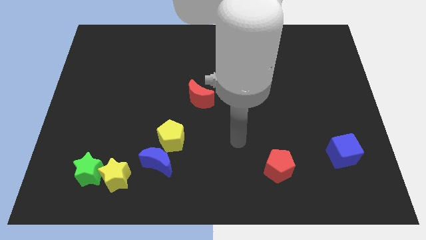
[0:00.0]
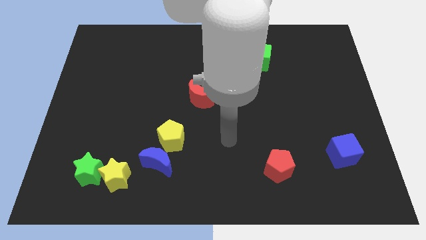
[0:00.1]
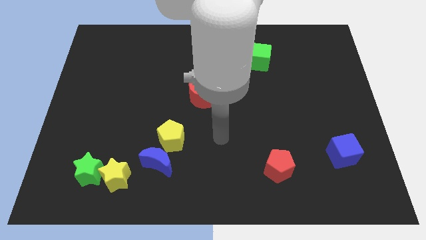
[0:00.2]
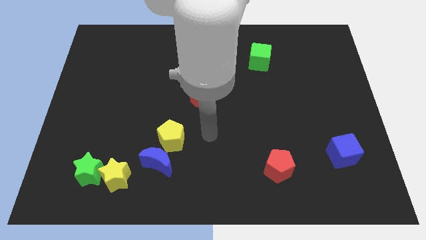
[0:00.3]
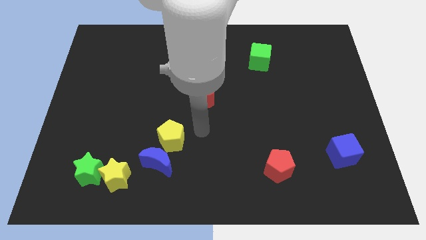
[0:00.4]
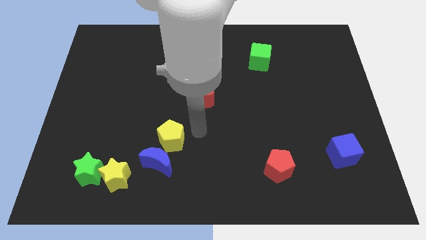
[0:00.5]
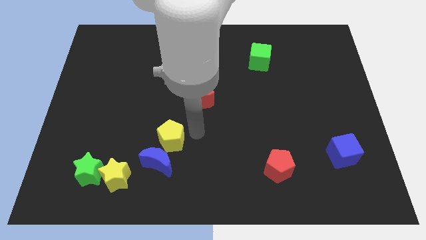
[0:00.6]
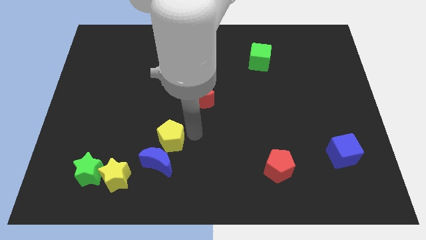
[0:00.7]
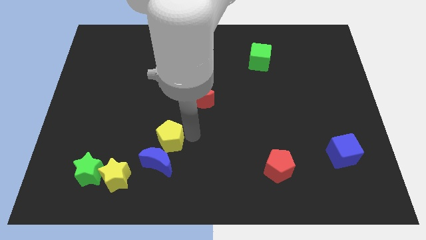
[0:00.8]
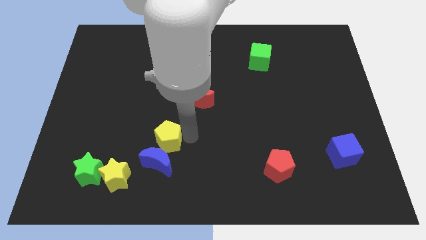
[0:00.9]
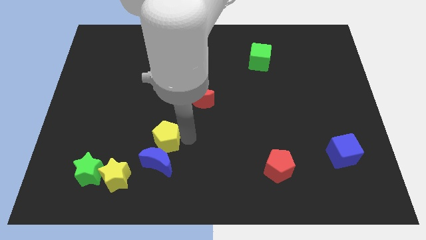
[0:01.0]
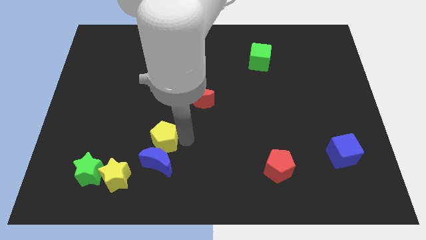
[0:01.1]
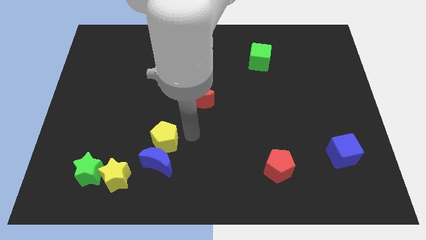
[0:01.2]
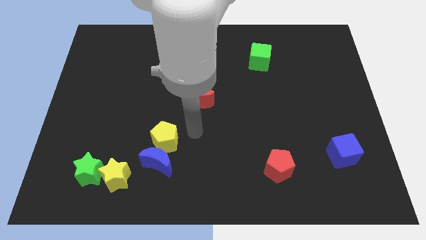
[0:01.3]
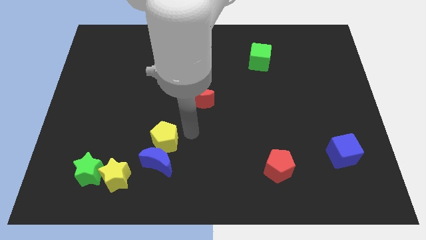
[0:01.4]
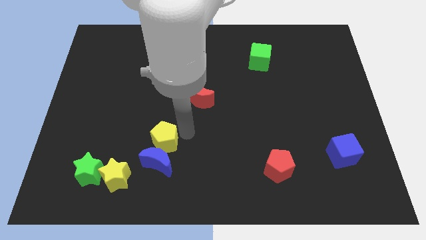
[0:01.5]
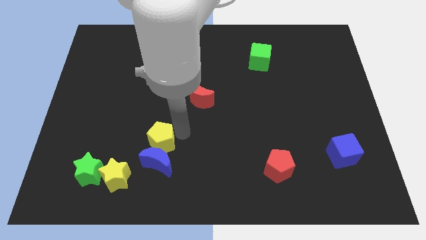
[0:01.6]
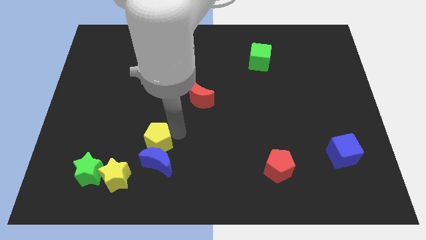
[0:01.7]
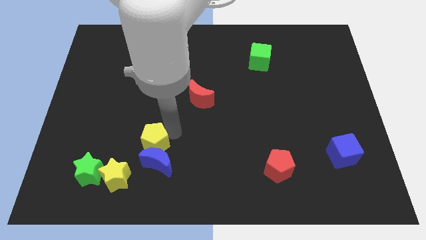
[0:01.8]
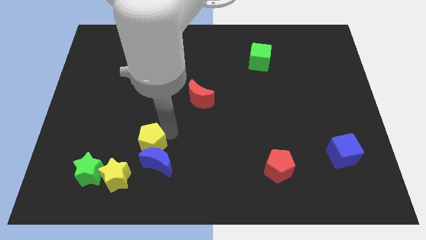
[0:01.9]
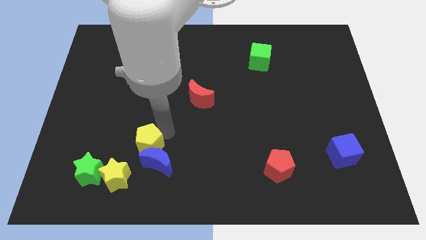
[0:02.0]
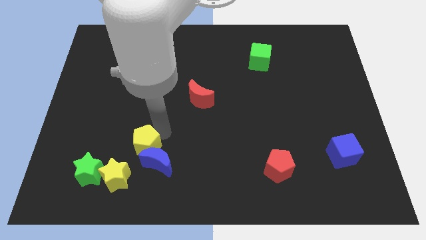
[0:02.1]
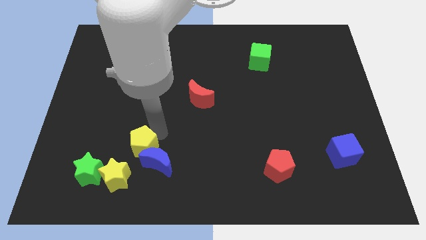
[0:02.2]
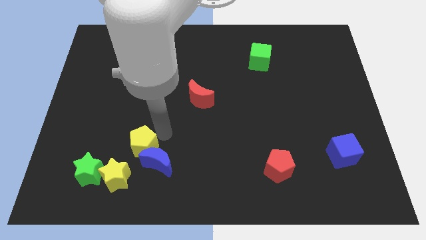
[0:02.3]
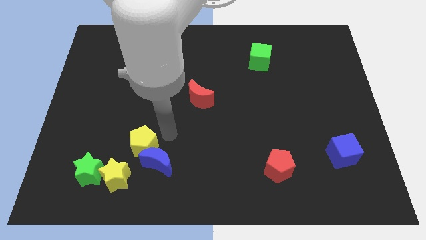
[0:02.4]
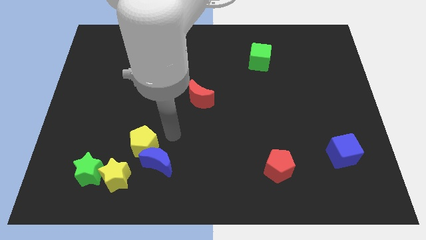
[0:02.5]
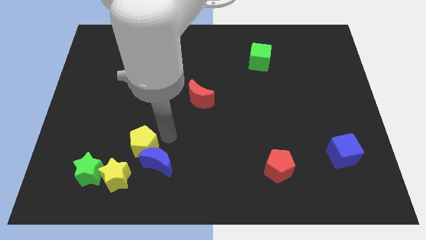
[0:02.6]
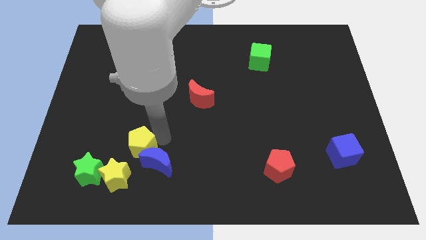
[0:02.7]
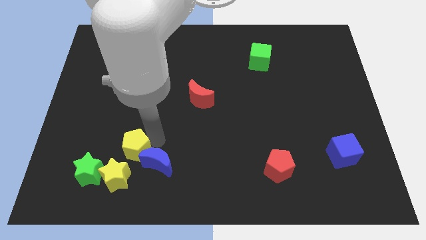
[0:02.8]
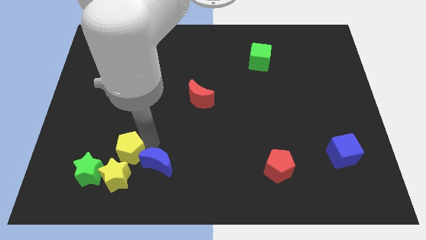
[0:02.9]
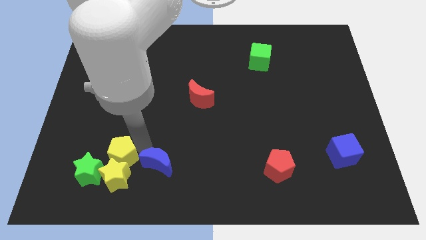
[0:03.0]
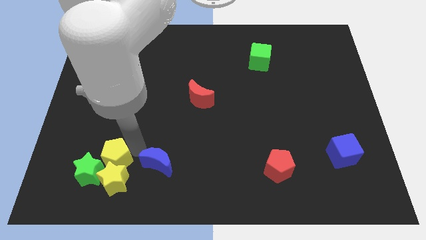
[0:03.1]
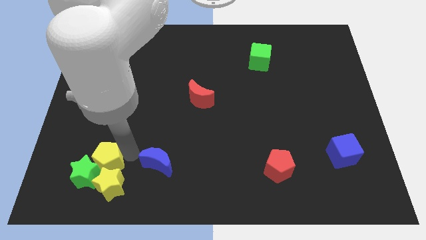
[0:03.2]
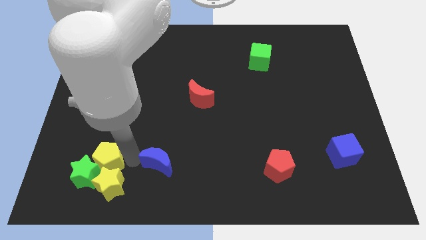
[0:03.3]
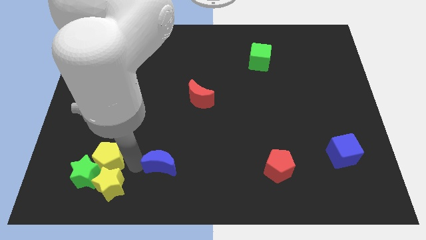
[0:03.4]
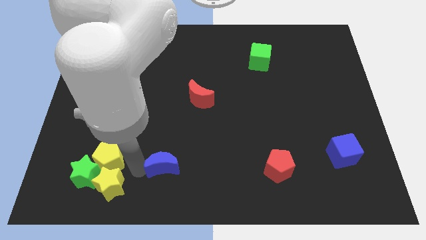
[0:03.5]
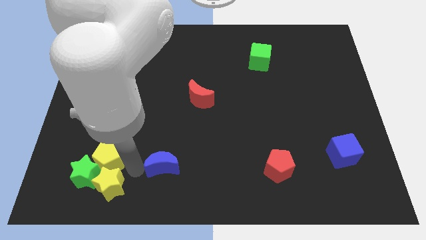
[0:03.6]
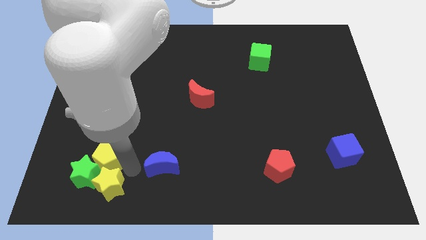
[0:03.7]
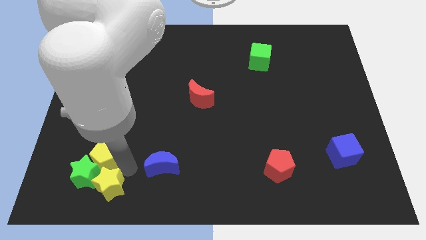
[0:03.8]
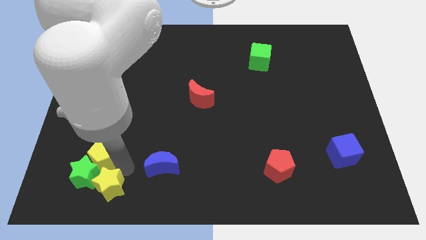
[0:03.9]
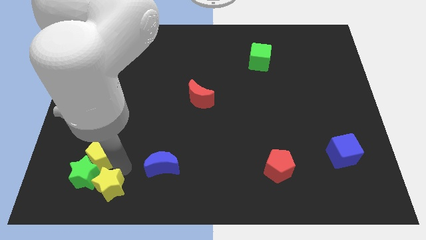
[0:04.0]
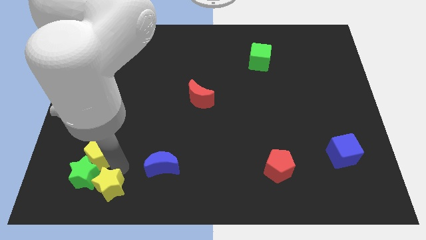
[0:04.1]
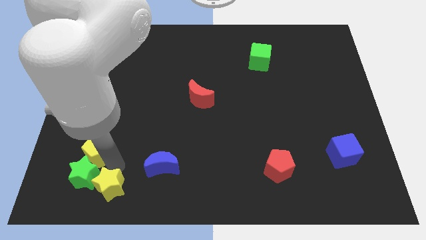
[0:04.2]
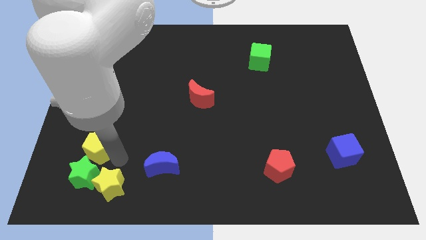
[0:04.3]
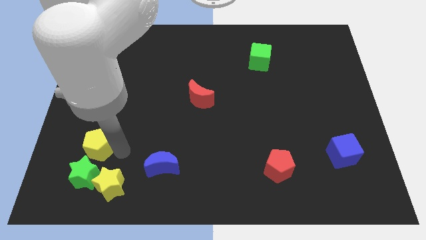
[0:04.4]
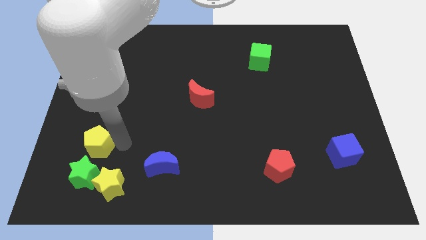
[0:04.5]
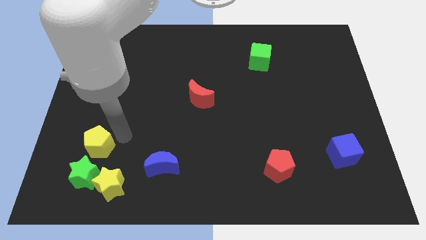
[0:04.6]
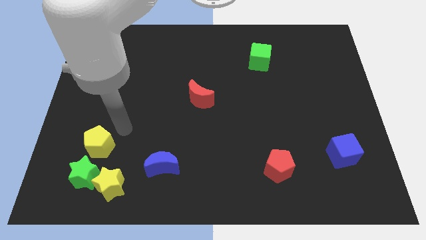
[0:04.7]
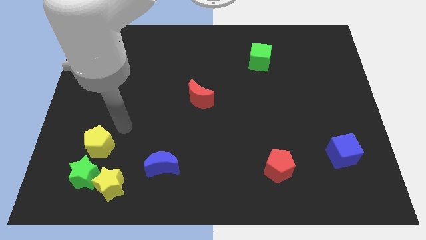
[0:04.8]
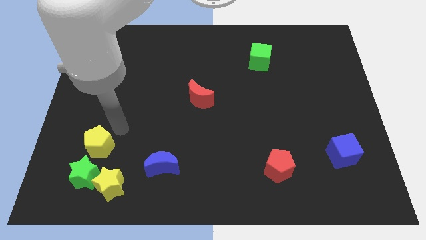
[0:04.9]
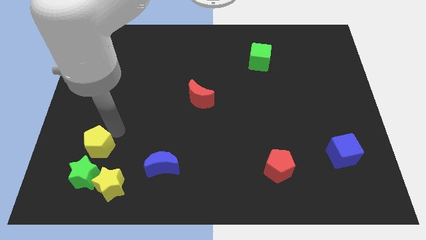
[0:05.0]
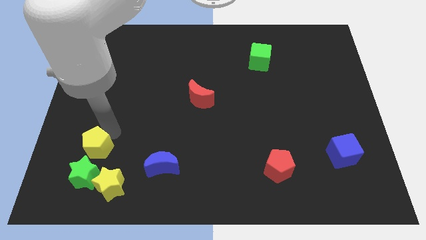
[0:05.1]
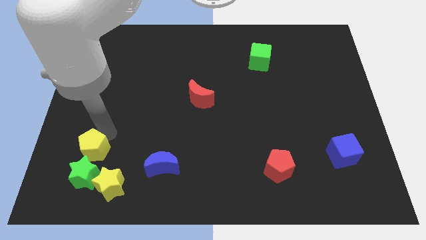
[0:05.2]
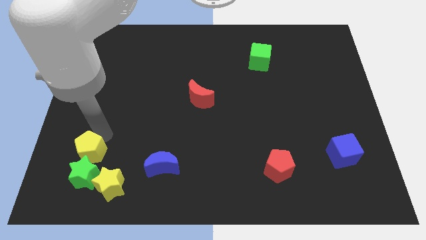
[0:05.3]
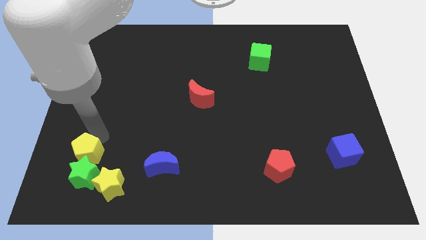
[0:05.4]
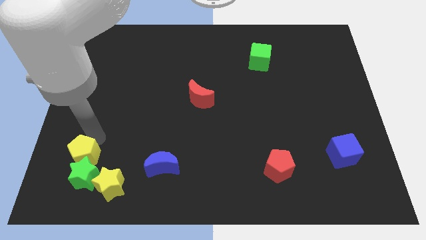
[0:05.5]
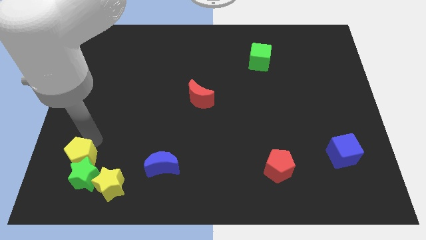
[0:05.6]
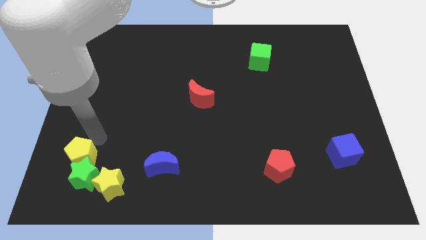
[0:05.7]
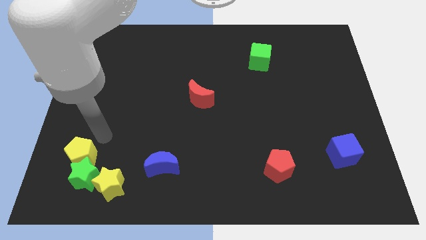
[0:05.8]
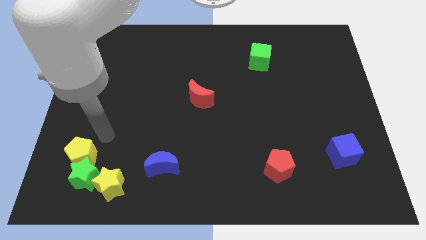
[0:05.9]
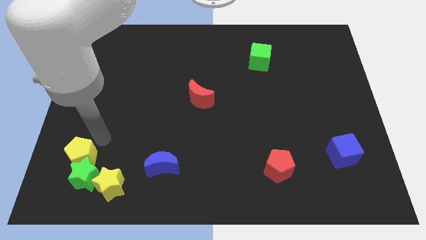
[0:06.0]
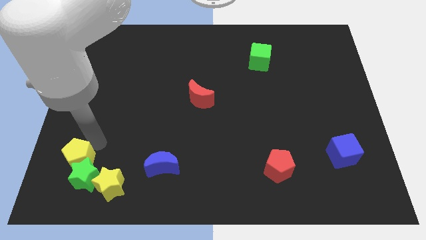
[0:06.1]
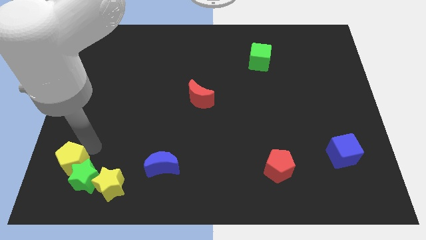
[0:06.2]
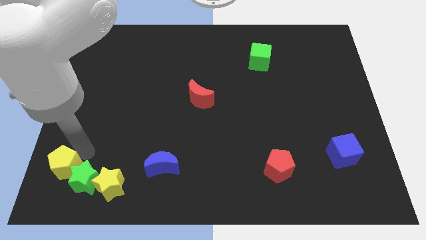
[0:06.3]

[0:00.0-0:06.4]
slide the yellow pentagon to the bottom left corner
